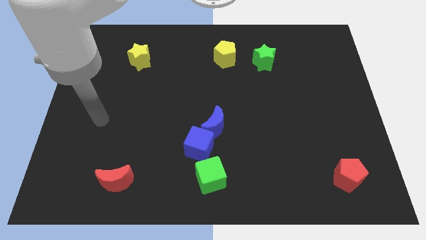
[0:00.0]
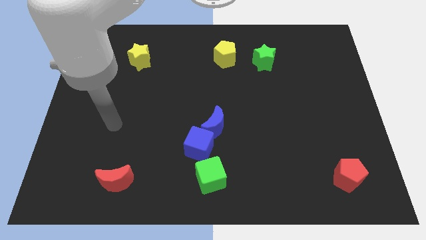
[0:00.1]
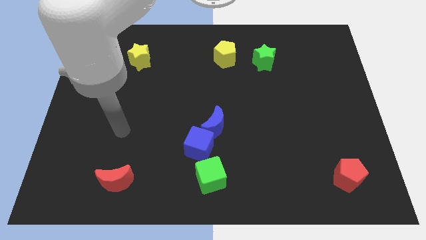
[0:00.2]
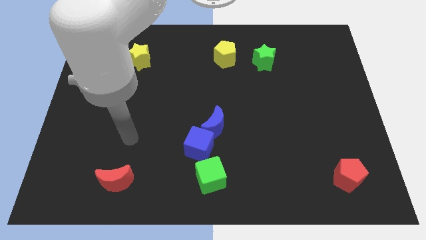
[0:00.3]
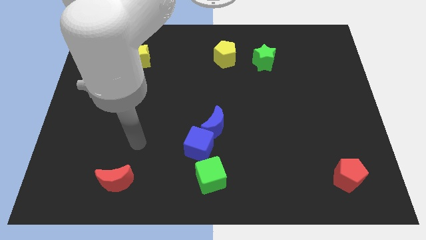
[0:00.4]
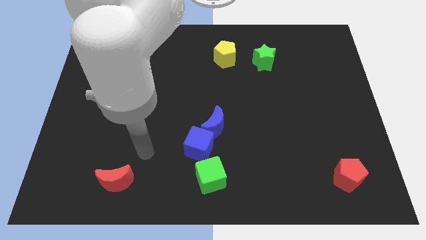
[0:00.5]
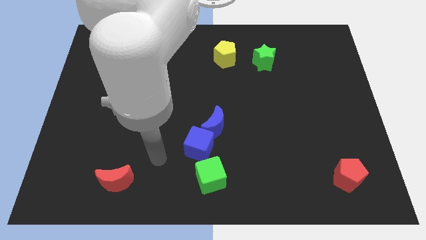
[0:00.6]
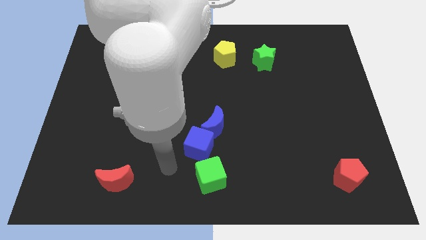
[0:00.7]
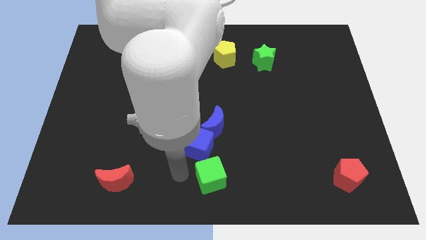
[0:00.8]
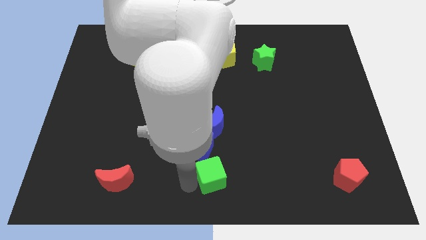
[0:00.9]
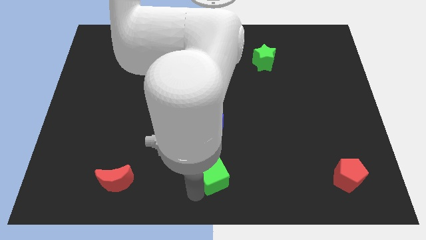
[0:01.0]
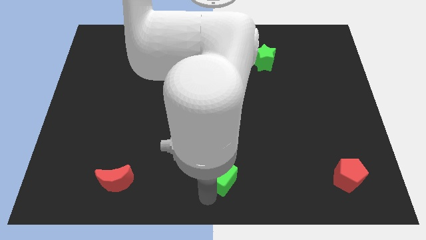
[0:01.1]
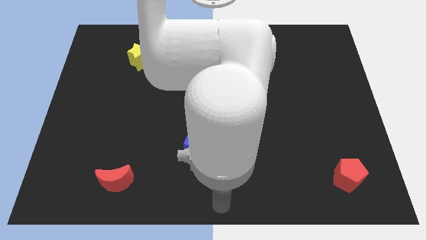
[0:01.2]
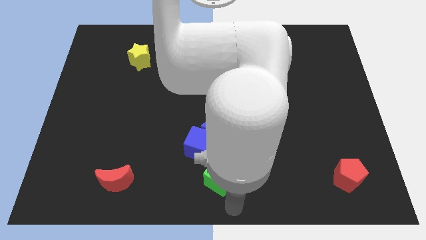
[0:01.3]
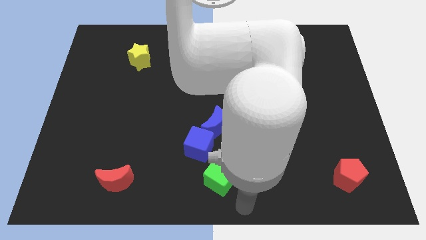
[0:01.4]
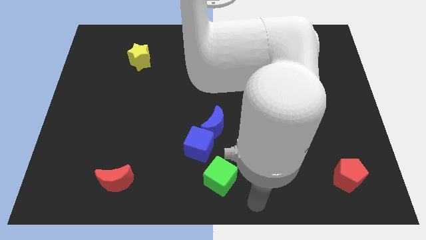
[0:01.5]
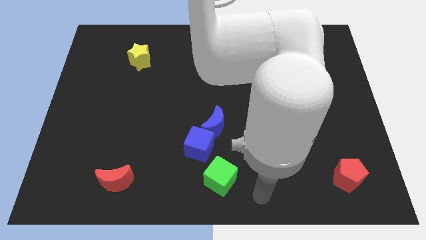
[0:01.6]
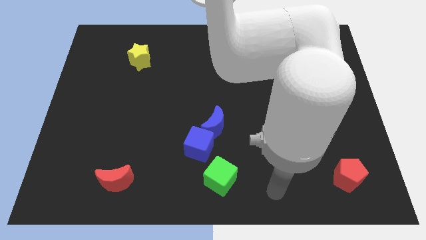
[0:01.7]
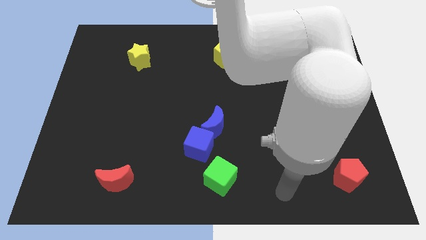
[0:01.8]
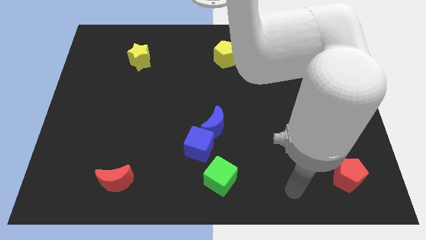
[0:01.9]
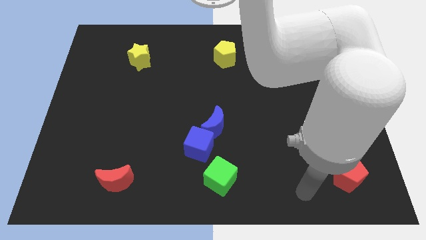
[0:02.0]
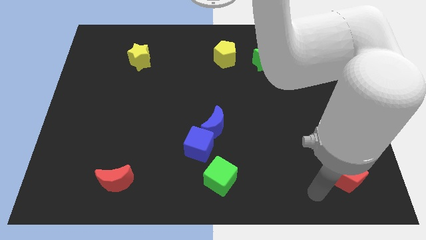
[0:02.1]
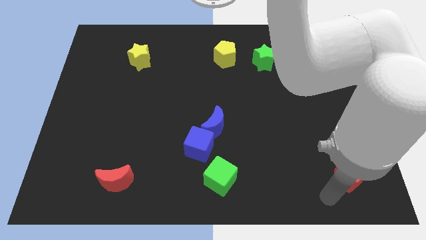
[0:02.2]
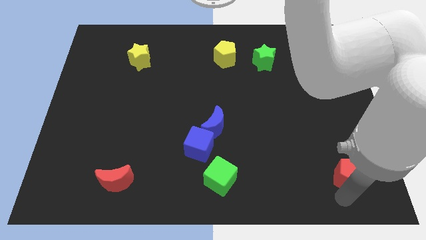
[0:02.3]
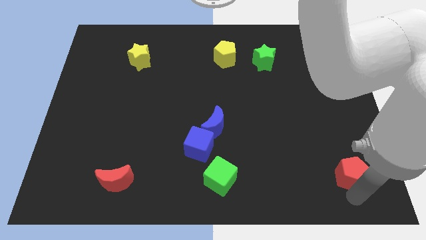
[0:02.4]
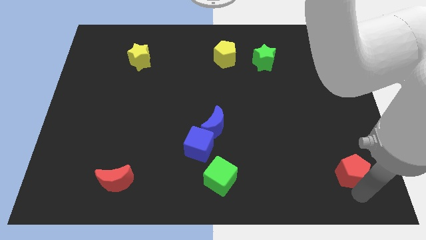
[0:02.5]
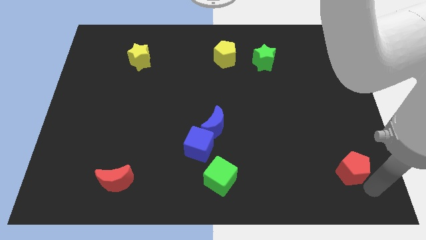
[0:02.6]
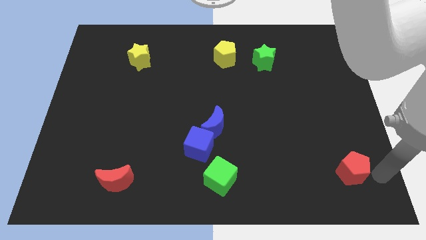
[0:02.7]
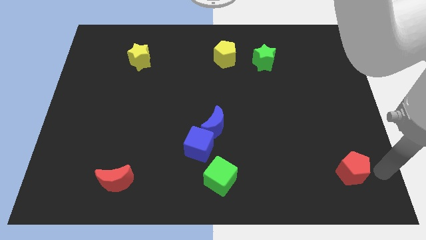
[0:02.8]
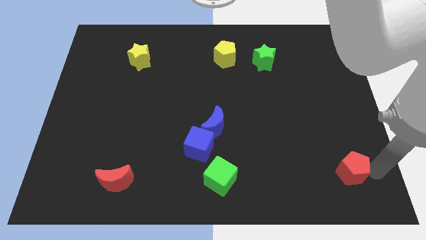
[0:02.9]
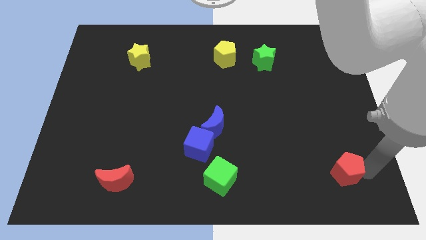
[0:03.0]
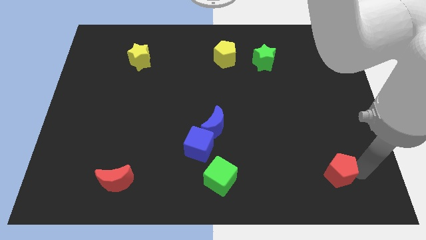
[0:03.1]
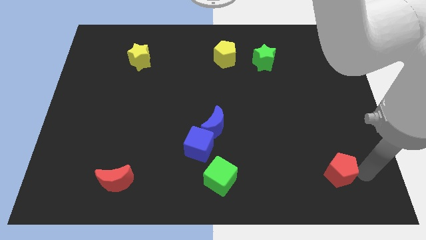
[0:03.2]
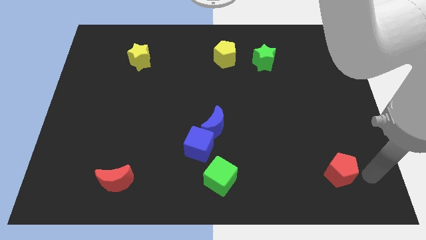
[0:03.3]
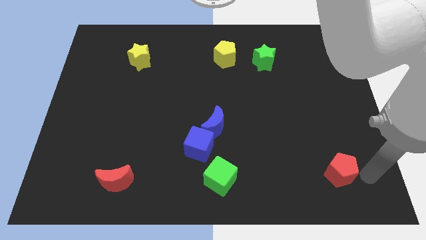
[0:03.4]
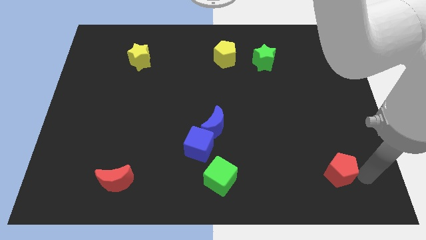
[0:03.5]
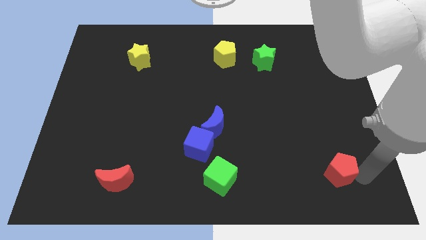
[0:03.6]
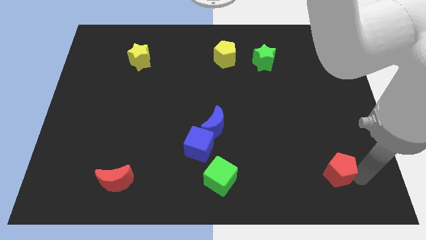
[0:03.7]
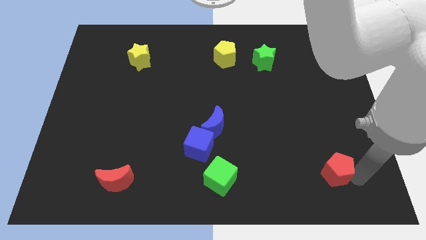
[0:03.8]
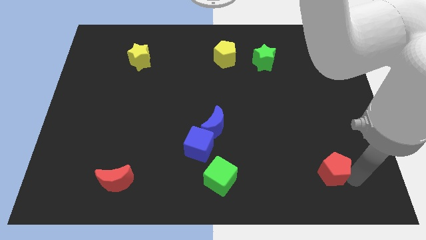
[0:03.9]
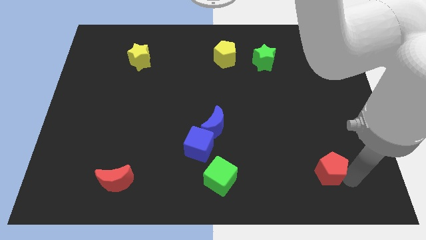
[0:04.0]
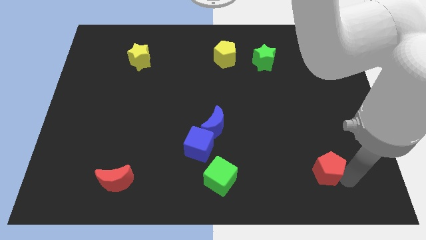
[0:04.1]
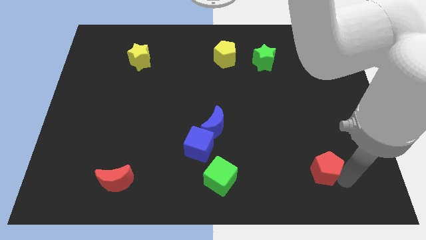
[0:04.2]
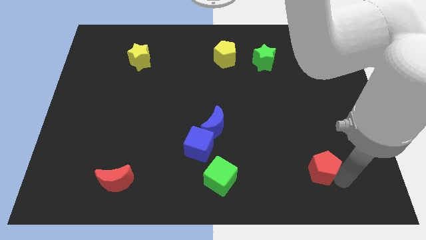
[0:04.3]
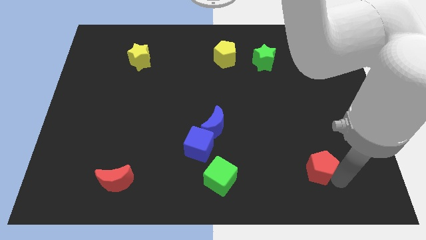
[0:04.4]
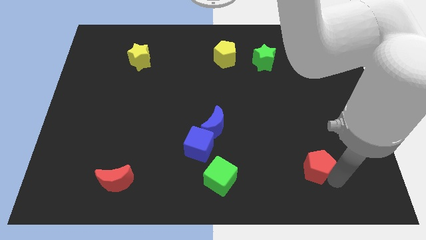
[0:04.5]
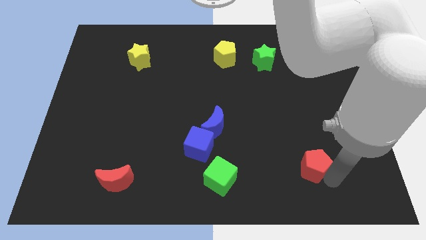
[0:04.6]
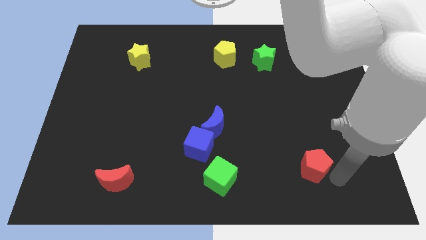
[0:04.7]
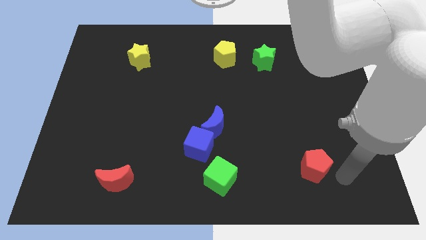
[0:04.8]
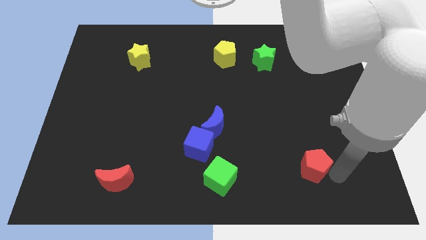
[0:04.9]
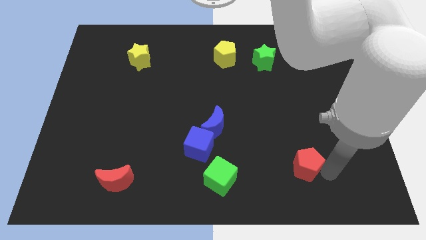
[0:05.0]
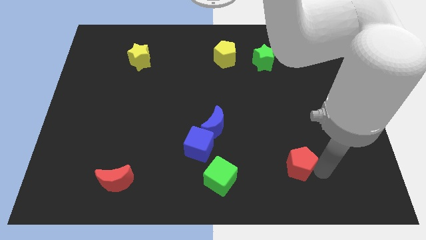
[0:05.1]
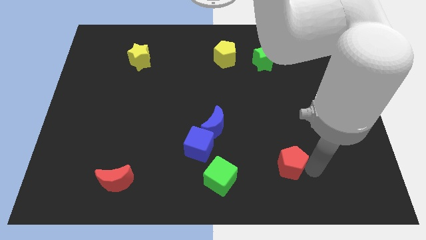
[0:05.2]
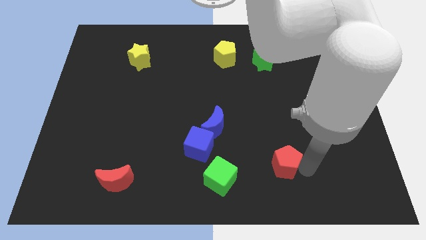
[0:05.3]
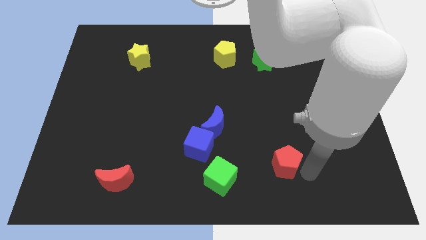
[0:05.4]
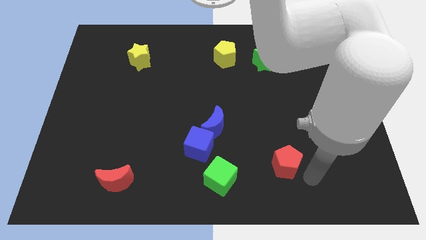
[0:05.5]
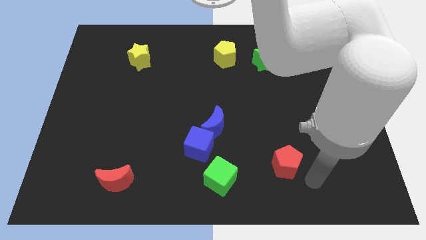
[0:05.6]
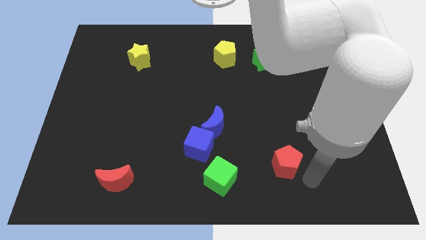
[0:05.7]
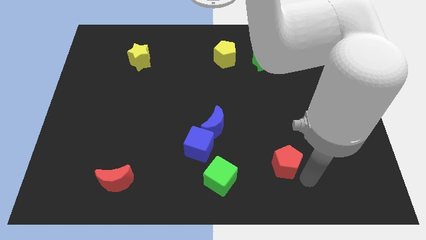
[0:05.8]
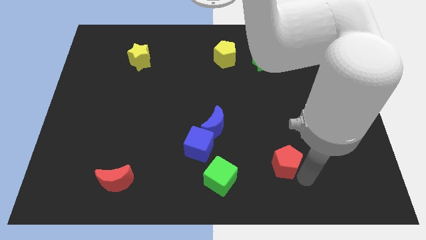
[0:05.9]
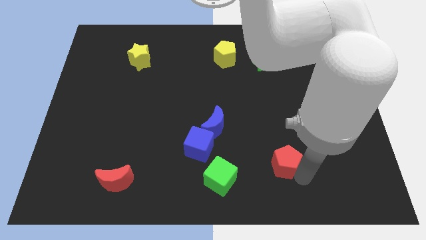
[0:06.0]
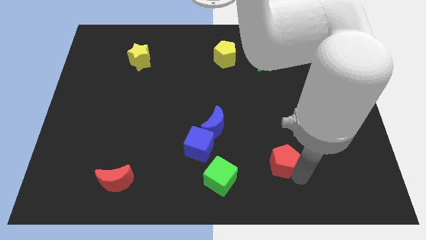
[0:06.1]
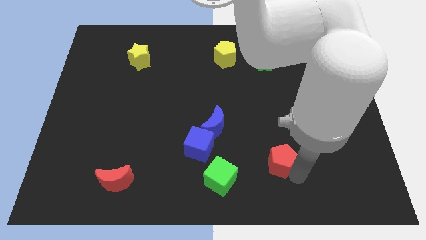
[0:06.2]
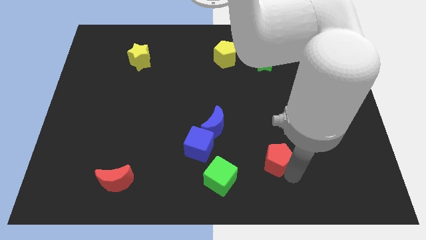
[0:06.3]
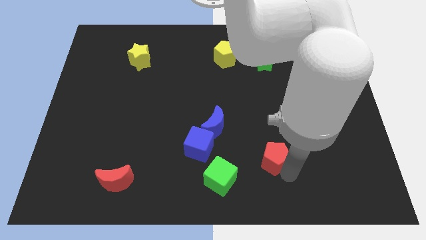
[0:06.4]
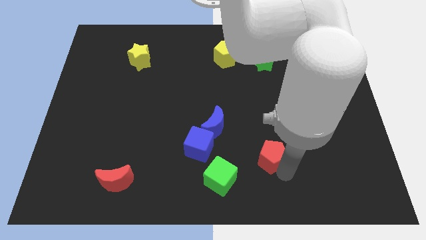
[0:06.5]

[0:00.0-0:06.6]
slide the red pentagon just right of the blue cube

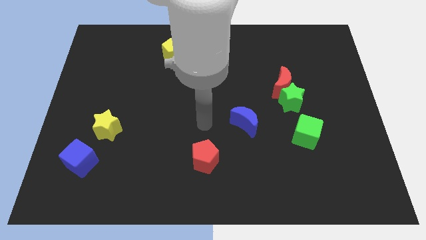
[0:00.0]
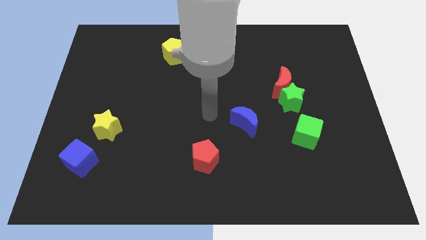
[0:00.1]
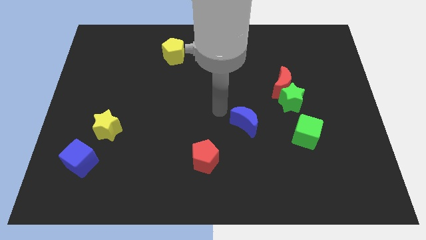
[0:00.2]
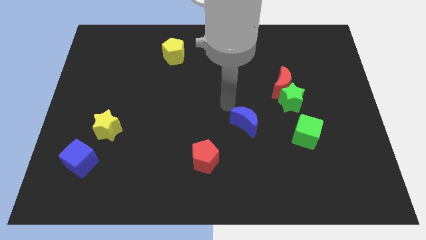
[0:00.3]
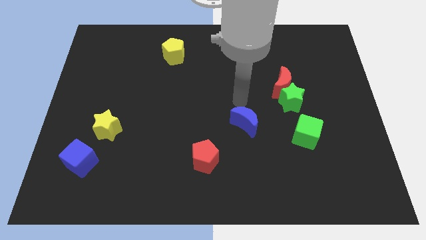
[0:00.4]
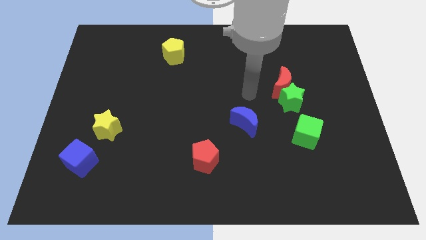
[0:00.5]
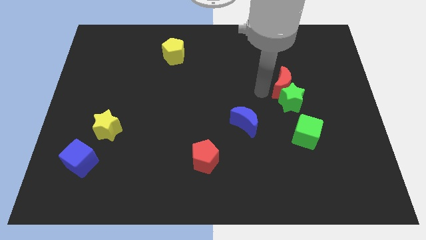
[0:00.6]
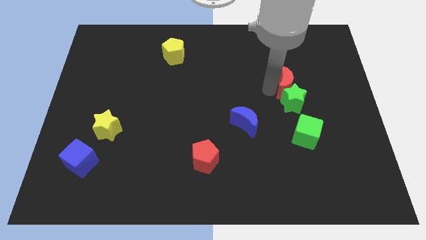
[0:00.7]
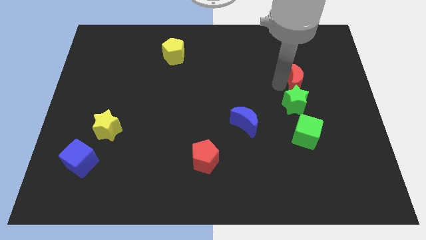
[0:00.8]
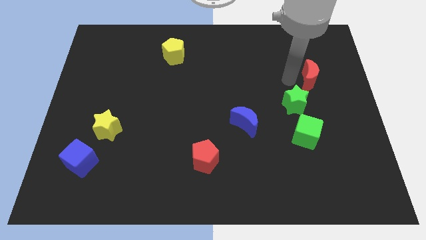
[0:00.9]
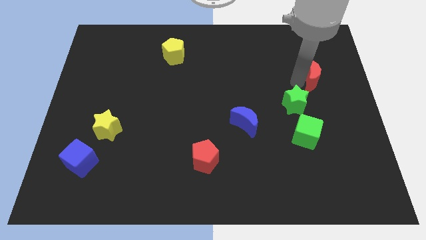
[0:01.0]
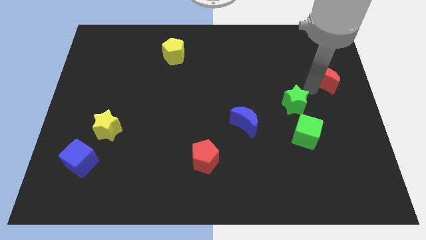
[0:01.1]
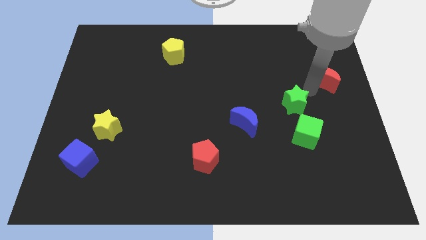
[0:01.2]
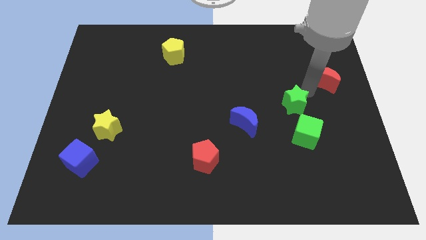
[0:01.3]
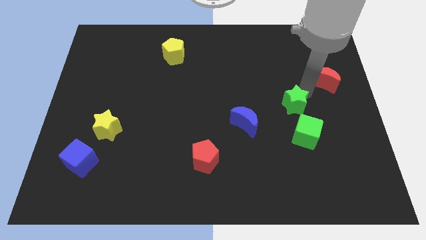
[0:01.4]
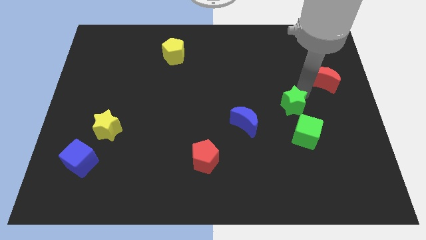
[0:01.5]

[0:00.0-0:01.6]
slide the green star to the top left of the green cube

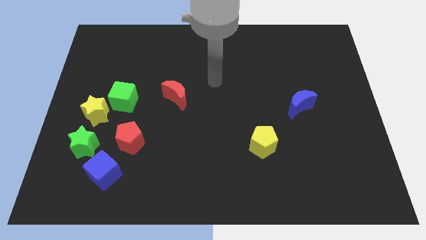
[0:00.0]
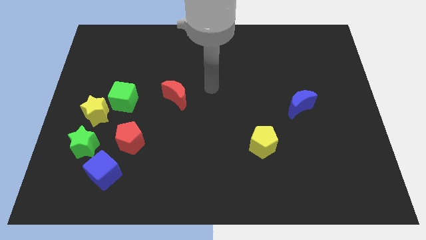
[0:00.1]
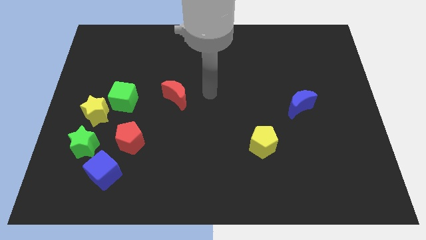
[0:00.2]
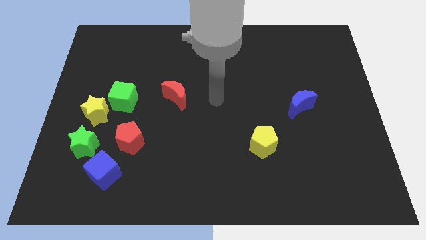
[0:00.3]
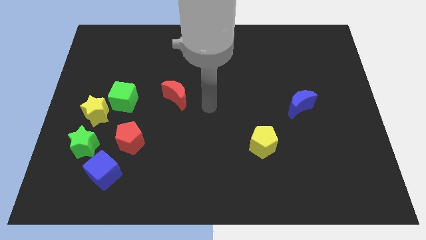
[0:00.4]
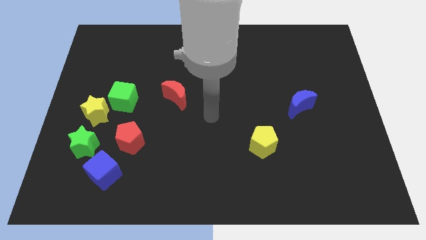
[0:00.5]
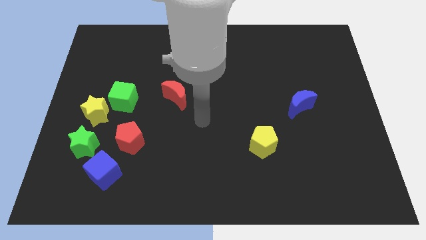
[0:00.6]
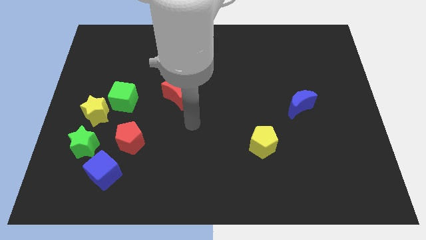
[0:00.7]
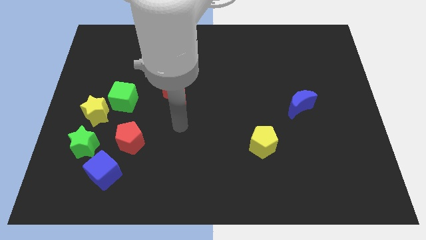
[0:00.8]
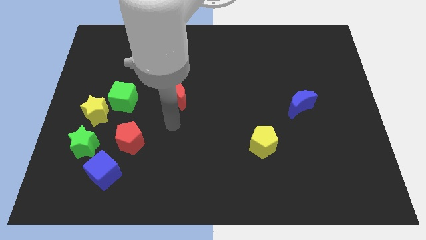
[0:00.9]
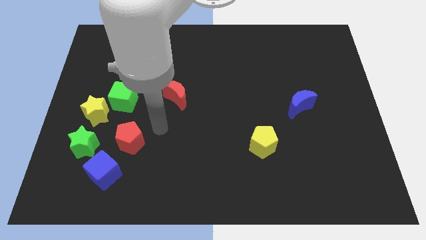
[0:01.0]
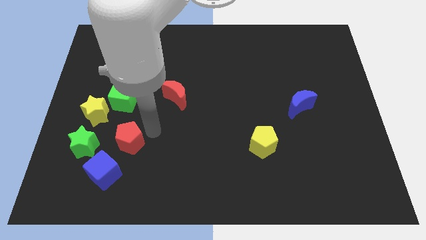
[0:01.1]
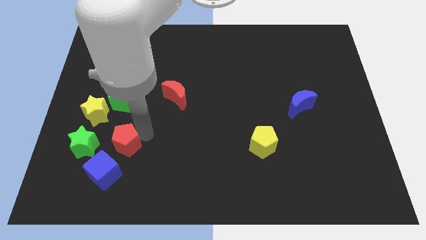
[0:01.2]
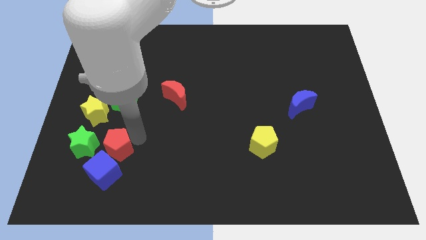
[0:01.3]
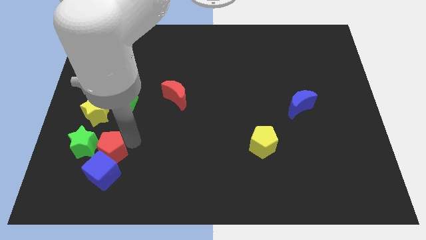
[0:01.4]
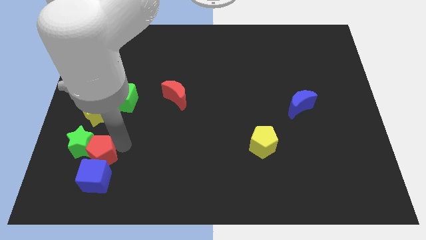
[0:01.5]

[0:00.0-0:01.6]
push the red pentagon to the bottom of the yellow star
